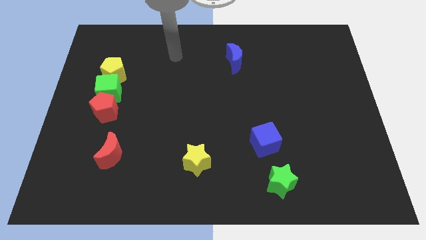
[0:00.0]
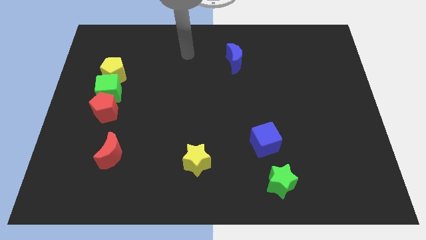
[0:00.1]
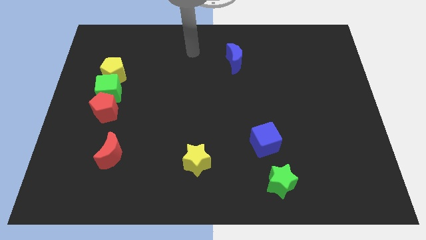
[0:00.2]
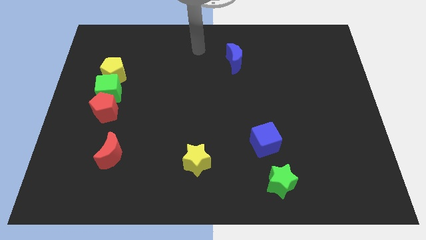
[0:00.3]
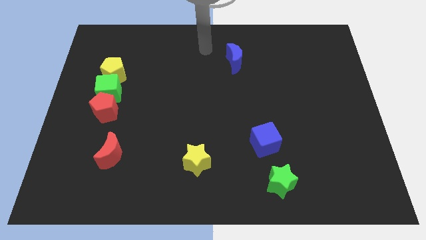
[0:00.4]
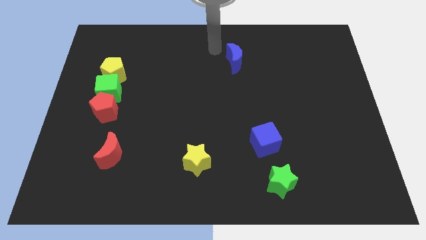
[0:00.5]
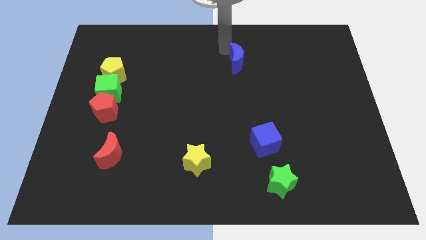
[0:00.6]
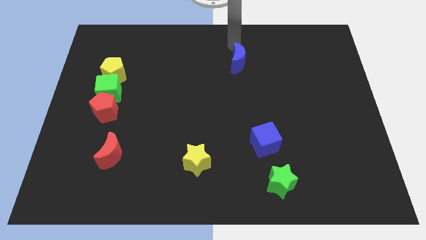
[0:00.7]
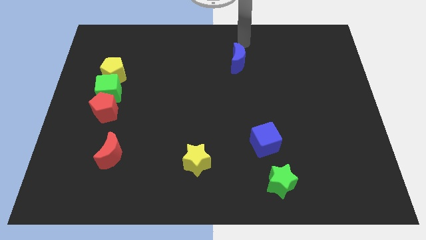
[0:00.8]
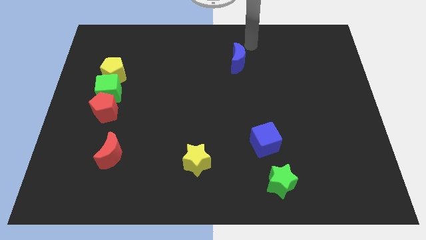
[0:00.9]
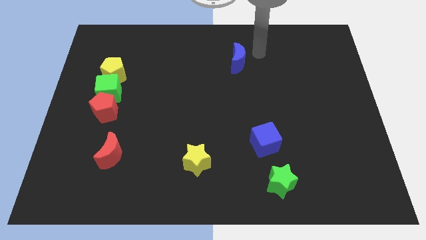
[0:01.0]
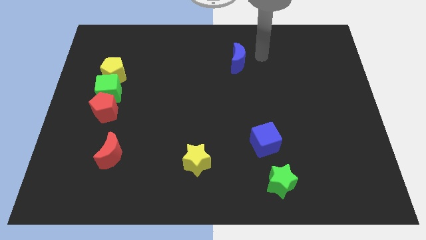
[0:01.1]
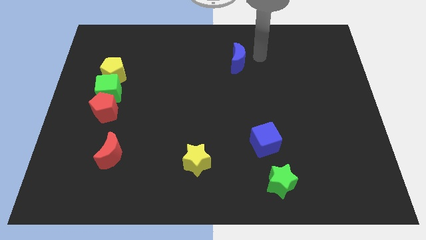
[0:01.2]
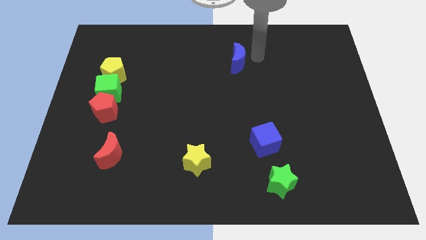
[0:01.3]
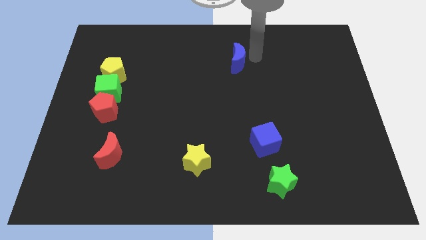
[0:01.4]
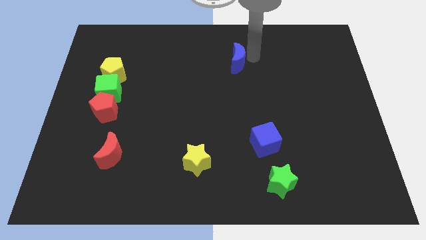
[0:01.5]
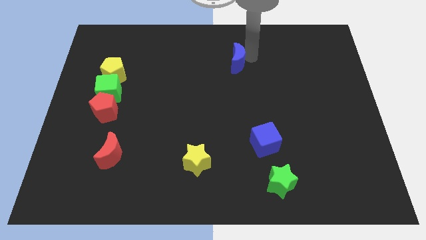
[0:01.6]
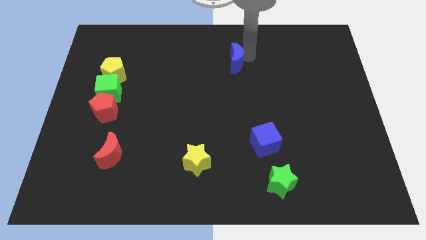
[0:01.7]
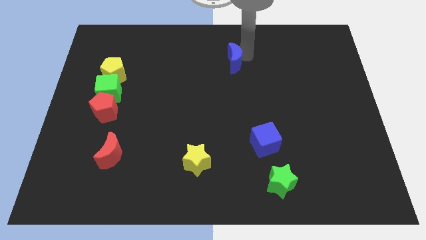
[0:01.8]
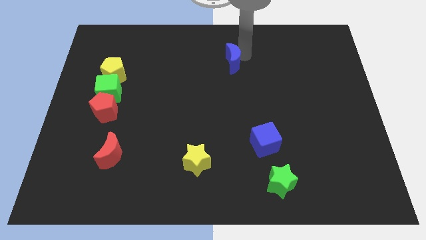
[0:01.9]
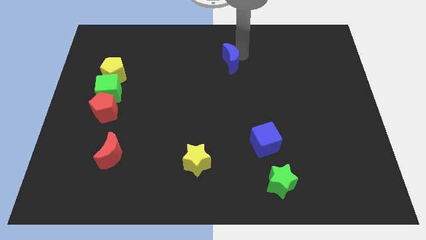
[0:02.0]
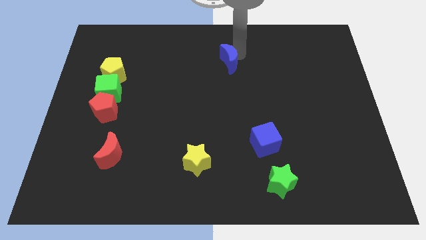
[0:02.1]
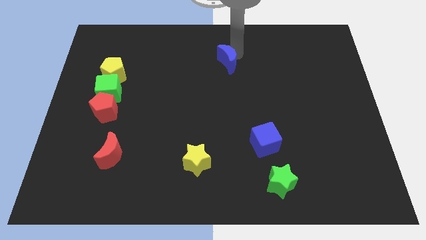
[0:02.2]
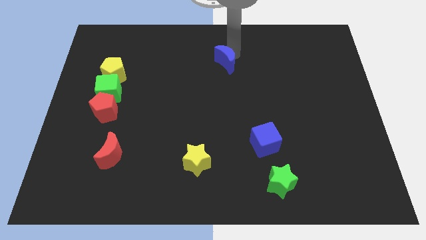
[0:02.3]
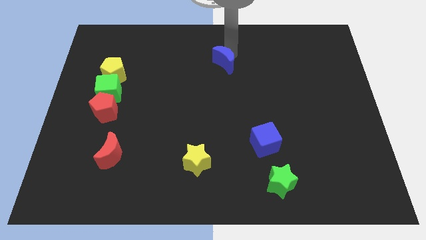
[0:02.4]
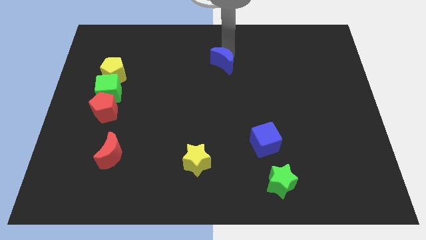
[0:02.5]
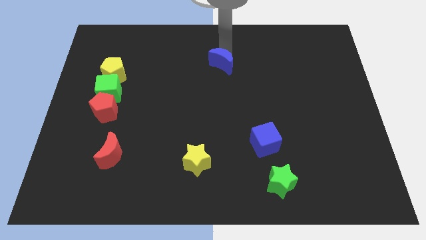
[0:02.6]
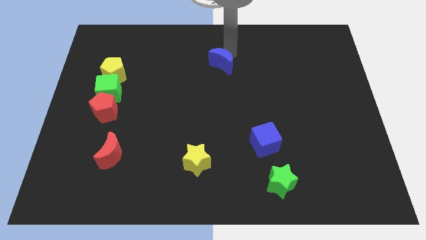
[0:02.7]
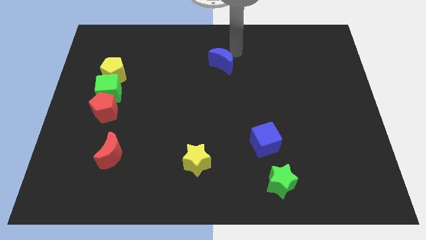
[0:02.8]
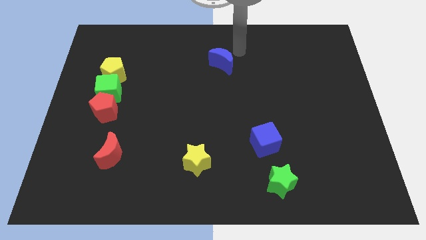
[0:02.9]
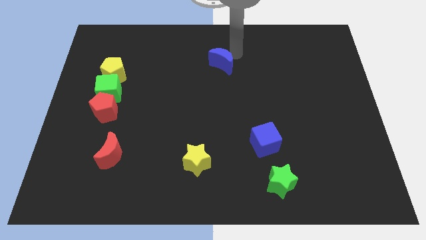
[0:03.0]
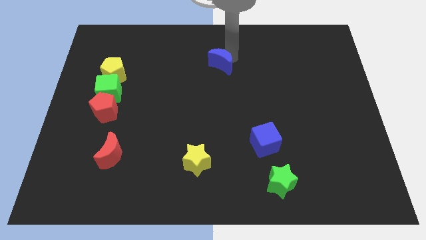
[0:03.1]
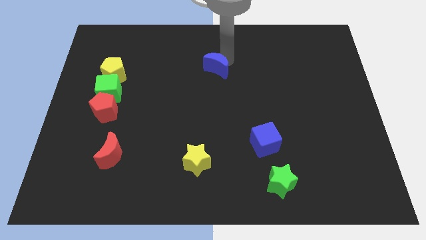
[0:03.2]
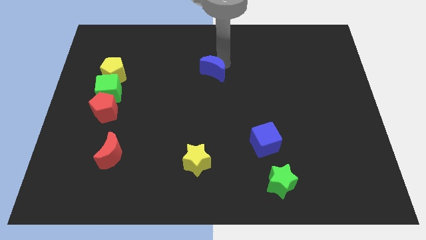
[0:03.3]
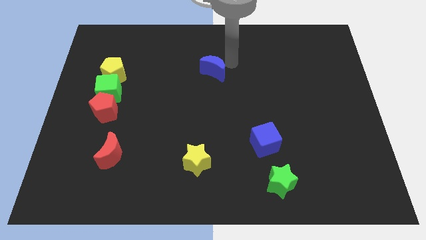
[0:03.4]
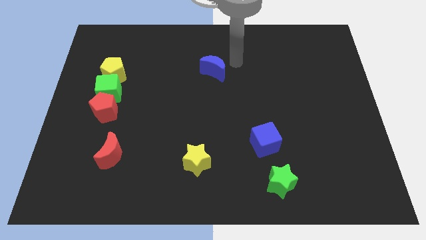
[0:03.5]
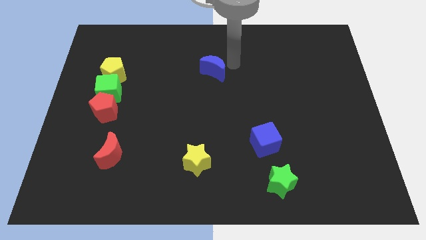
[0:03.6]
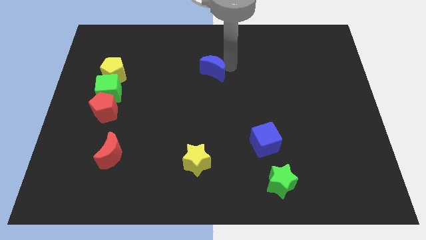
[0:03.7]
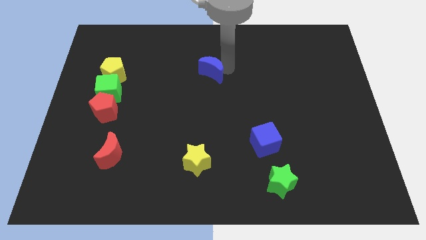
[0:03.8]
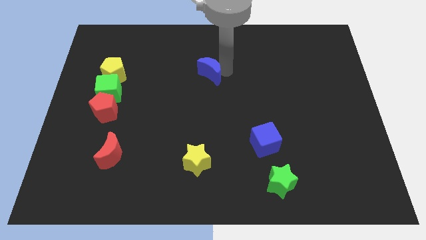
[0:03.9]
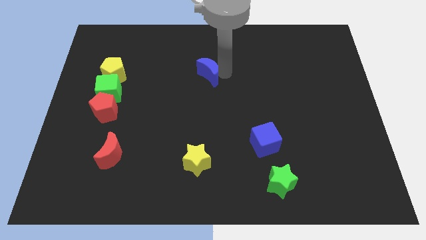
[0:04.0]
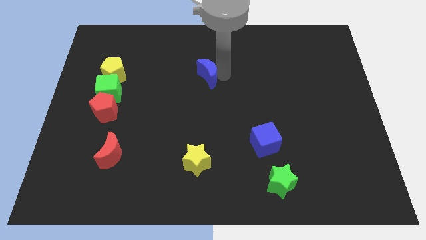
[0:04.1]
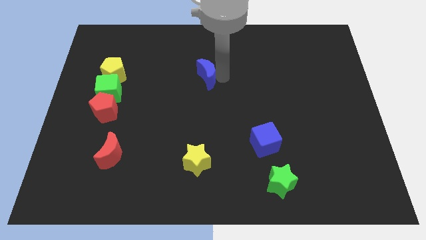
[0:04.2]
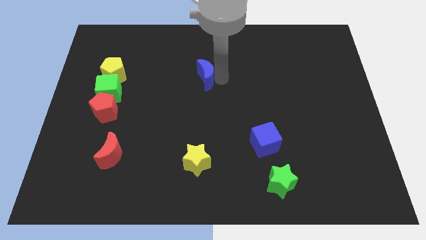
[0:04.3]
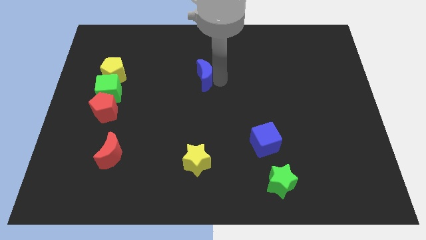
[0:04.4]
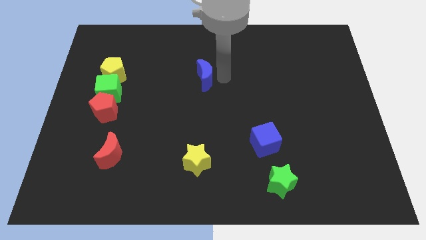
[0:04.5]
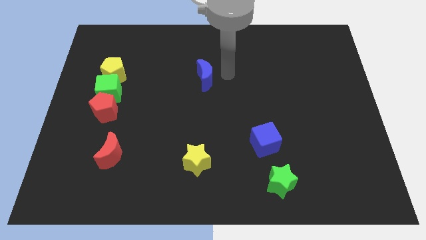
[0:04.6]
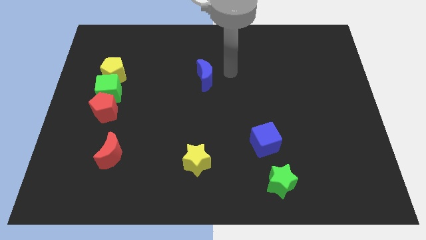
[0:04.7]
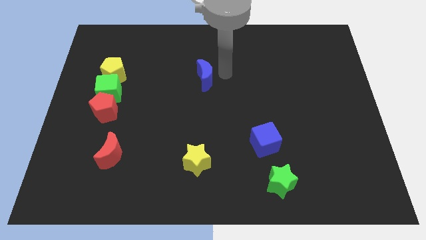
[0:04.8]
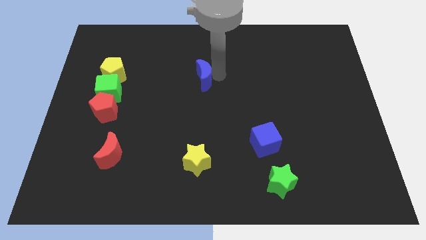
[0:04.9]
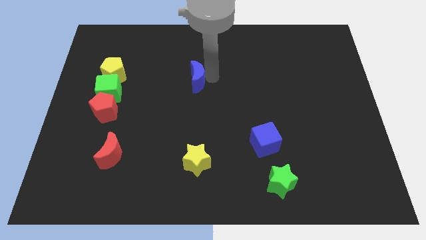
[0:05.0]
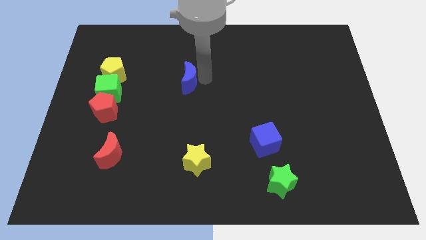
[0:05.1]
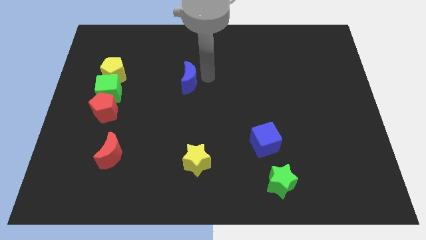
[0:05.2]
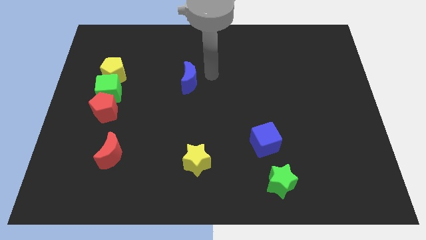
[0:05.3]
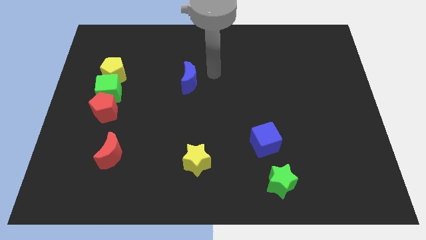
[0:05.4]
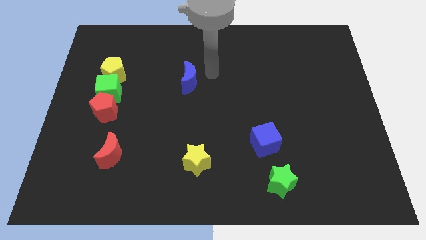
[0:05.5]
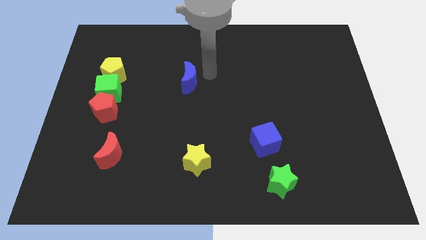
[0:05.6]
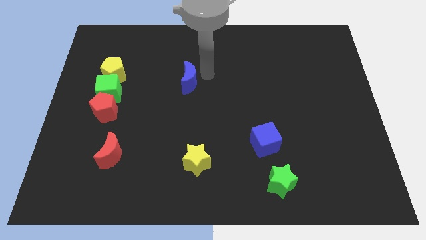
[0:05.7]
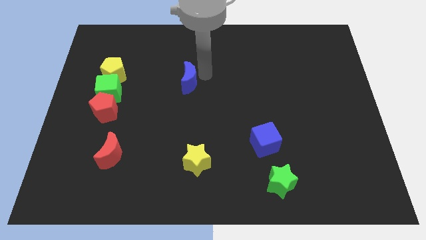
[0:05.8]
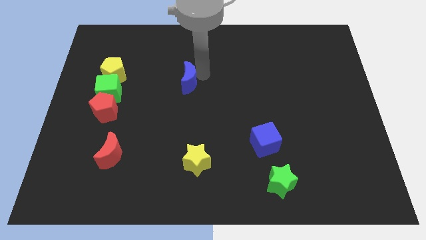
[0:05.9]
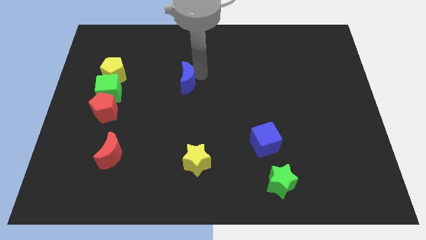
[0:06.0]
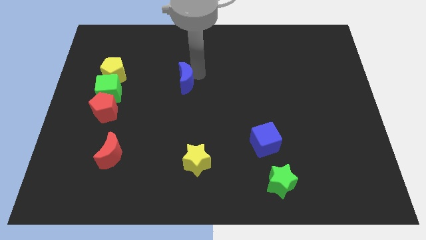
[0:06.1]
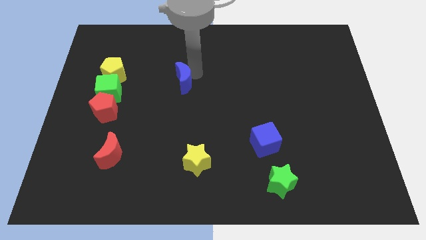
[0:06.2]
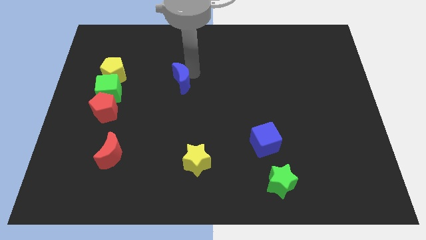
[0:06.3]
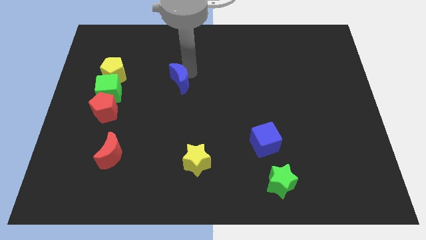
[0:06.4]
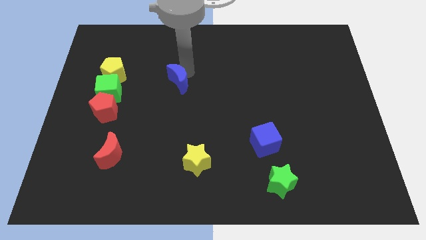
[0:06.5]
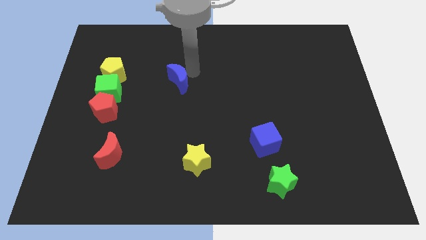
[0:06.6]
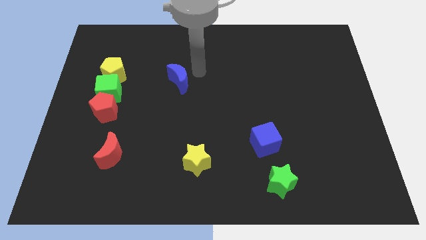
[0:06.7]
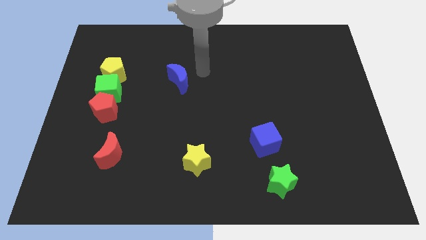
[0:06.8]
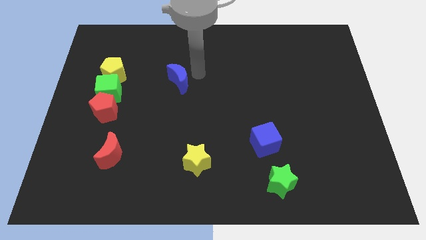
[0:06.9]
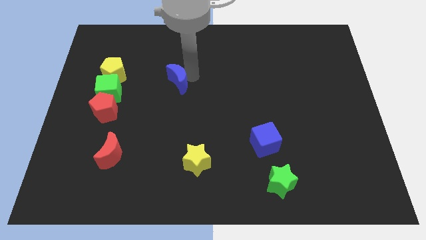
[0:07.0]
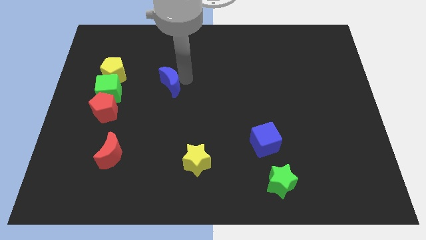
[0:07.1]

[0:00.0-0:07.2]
put the blue moon just right of the green cube
